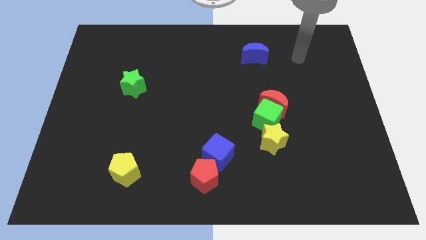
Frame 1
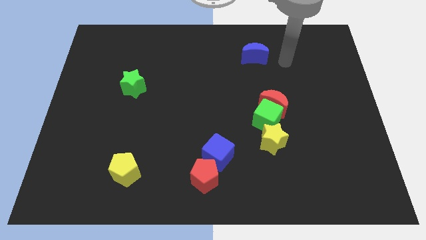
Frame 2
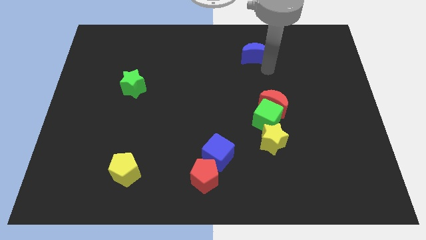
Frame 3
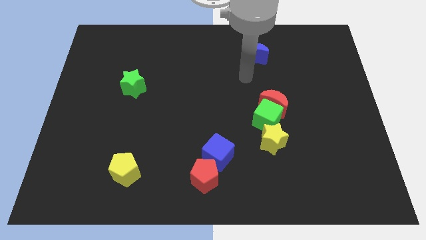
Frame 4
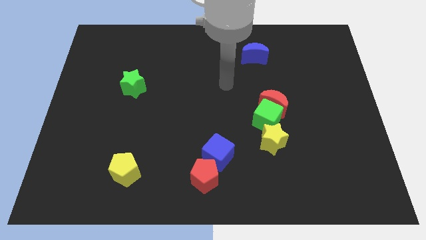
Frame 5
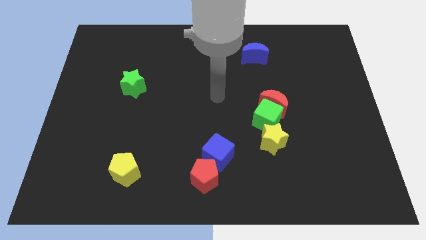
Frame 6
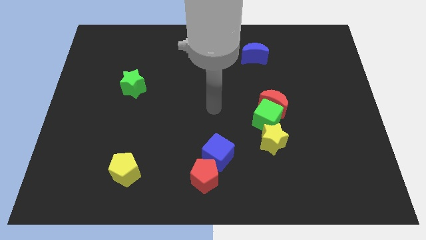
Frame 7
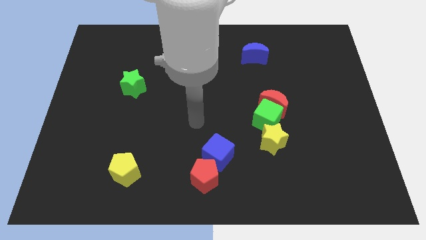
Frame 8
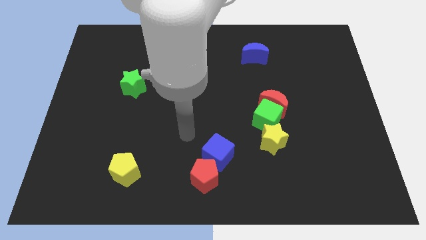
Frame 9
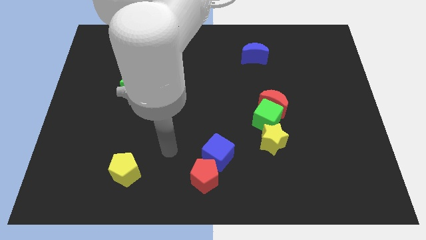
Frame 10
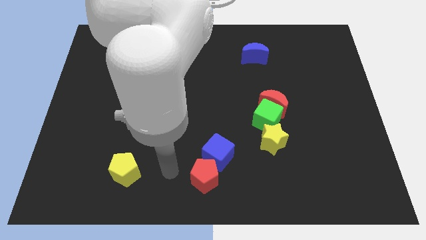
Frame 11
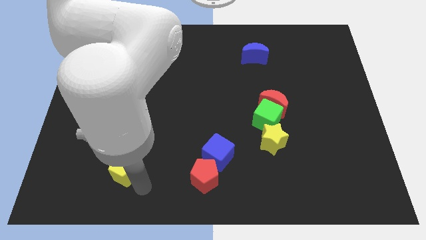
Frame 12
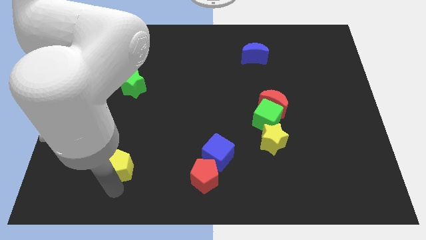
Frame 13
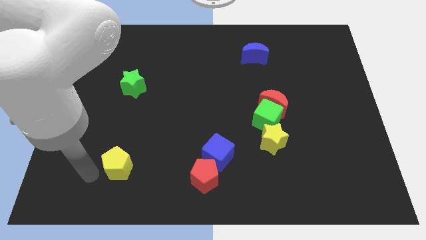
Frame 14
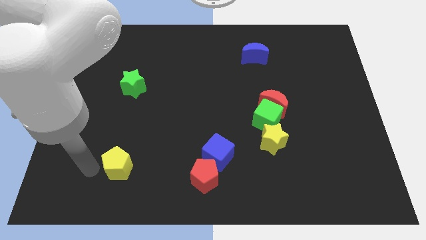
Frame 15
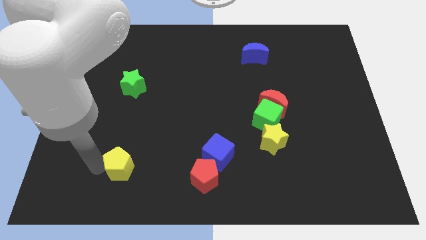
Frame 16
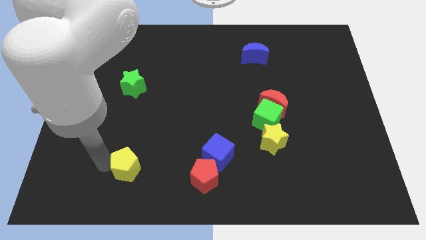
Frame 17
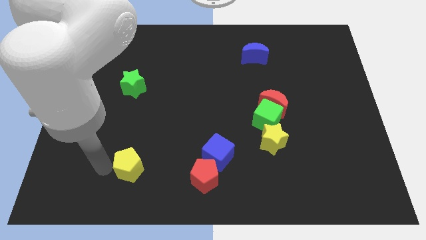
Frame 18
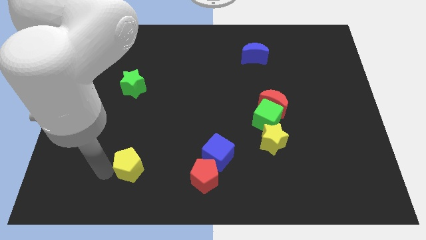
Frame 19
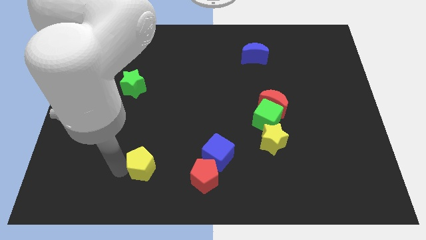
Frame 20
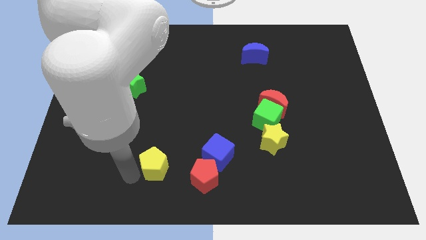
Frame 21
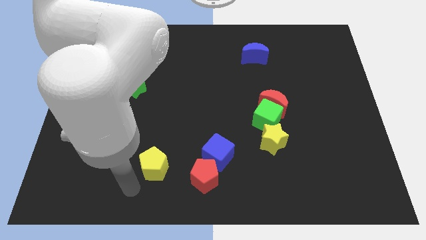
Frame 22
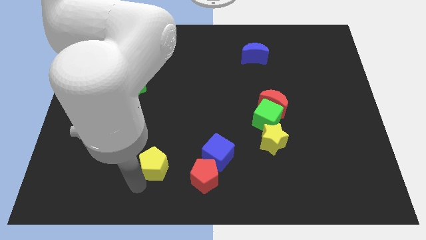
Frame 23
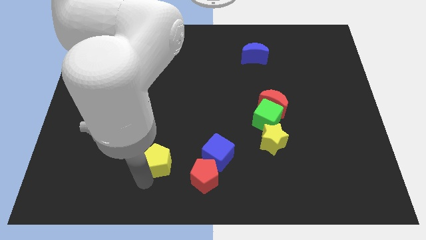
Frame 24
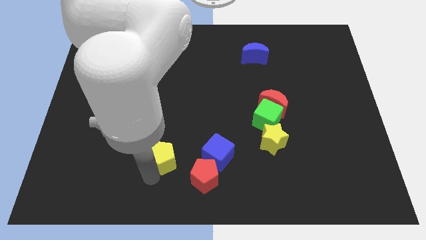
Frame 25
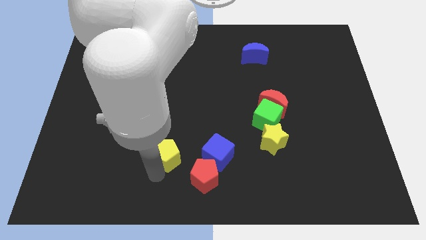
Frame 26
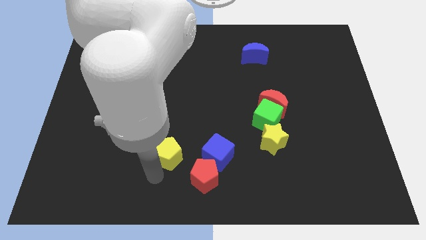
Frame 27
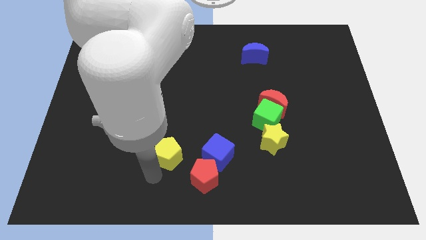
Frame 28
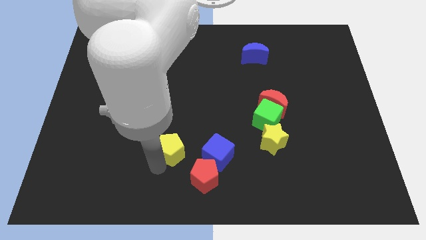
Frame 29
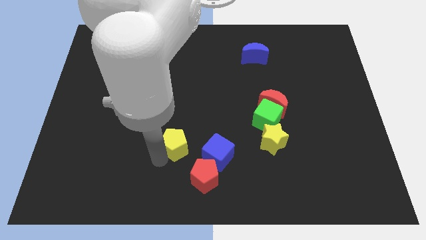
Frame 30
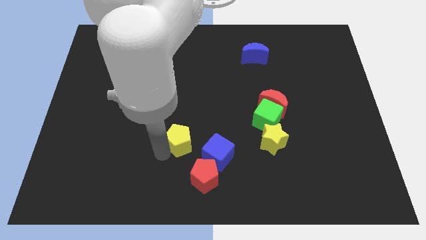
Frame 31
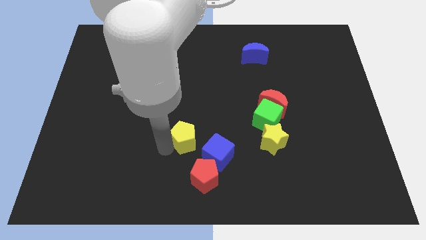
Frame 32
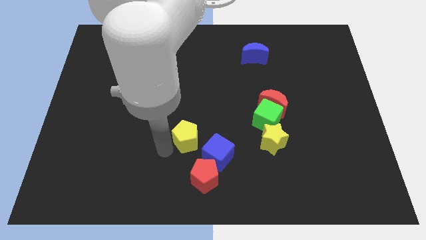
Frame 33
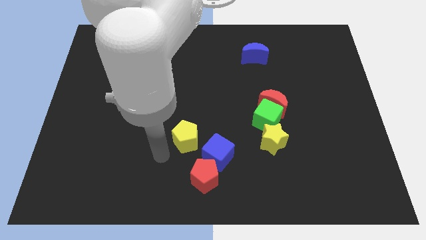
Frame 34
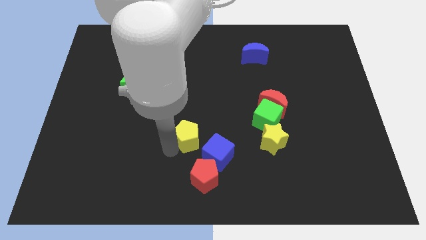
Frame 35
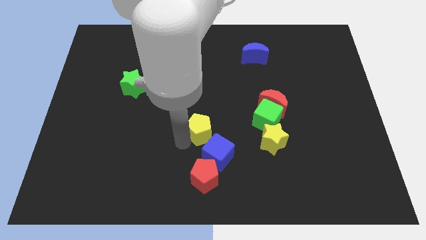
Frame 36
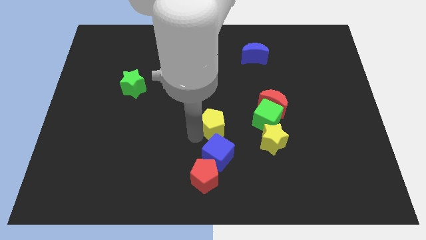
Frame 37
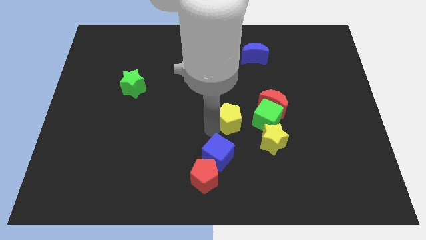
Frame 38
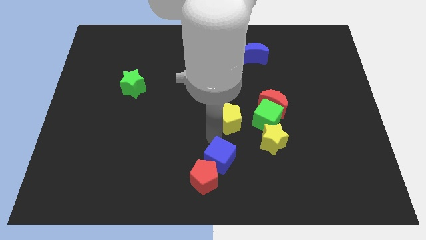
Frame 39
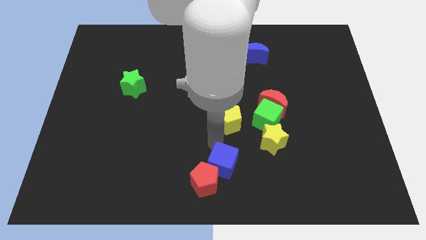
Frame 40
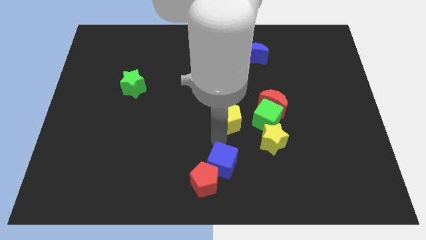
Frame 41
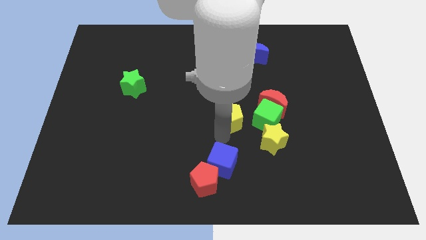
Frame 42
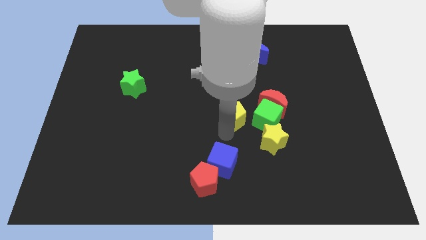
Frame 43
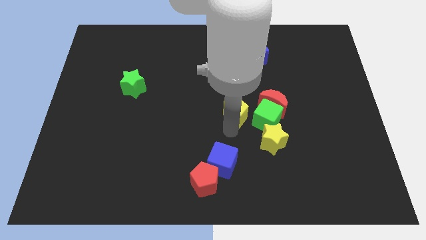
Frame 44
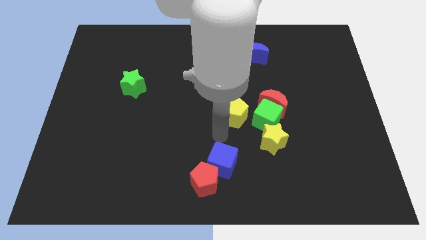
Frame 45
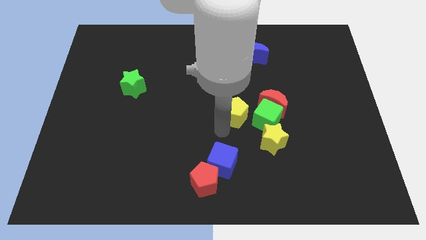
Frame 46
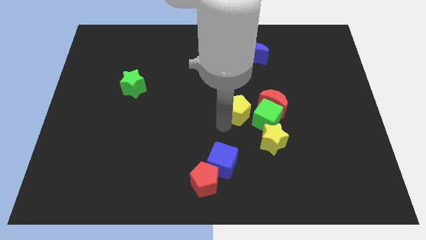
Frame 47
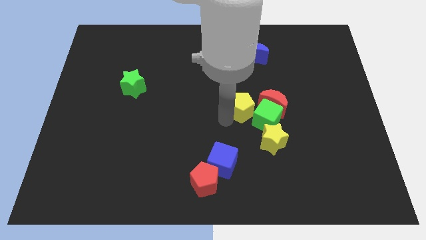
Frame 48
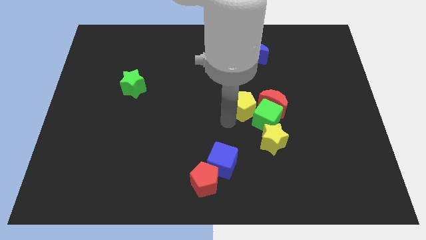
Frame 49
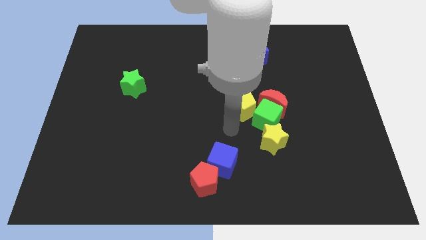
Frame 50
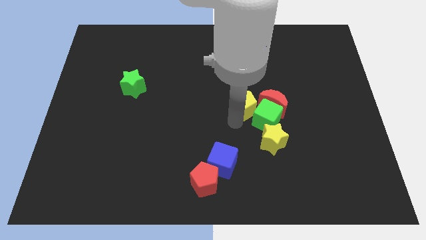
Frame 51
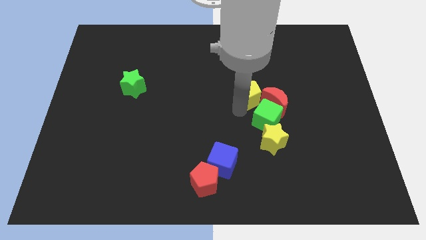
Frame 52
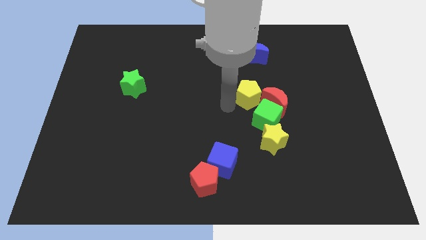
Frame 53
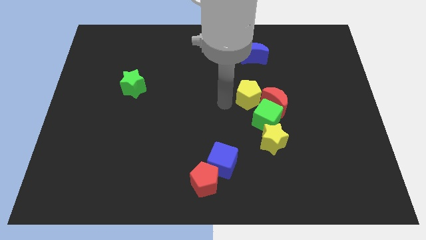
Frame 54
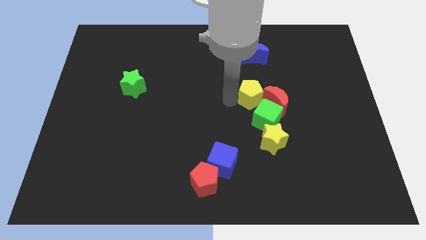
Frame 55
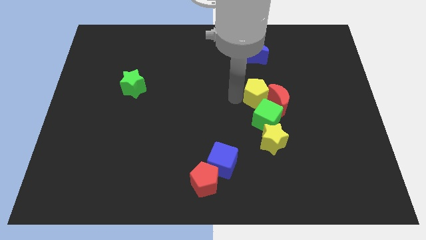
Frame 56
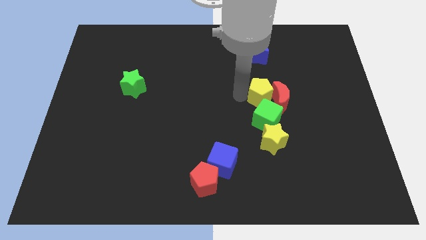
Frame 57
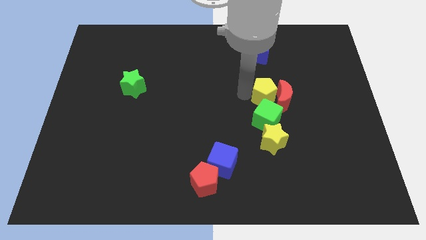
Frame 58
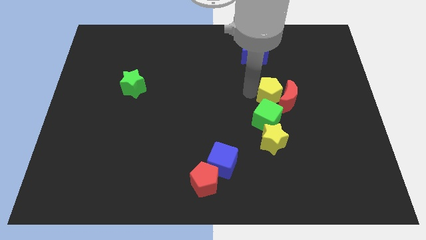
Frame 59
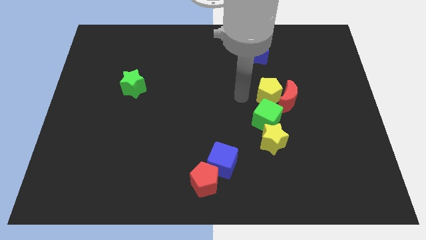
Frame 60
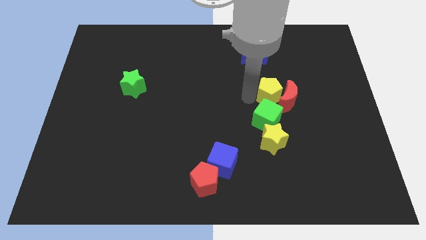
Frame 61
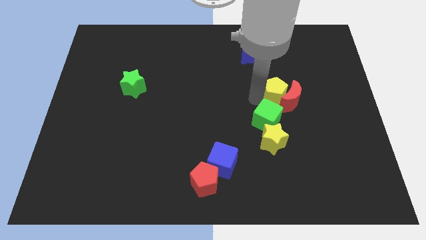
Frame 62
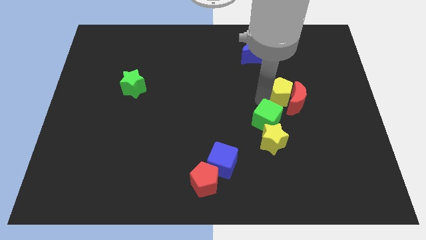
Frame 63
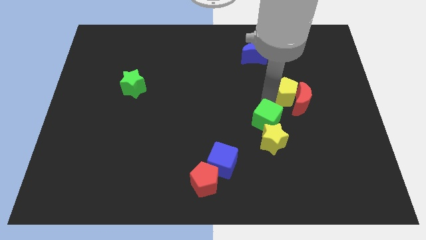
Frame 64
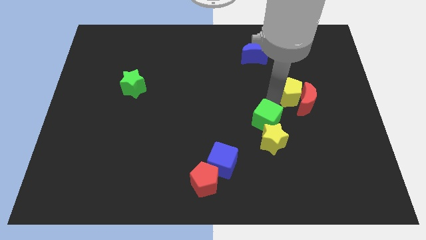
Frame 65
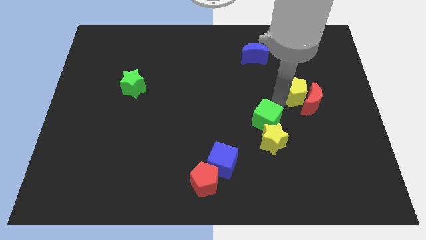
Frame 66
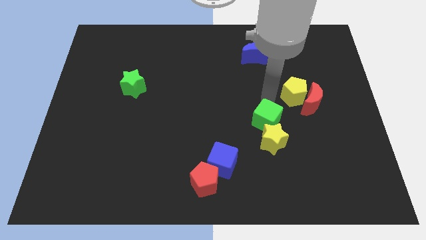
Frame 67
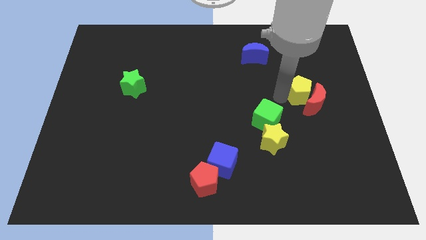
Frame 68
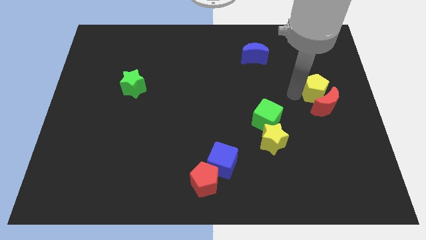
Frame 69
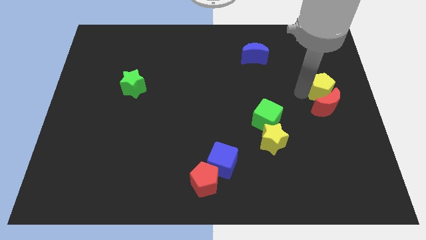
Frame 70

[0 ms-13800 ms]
put the yellow pentagon to the right side

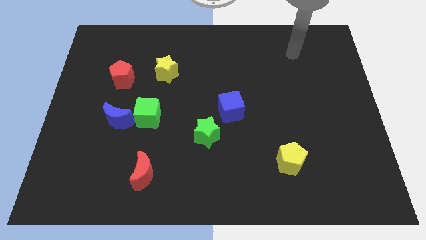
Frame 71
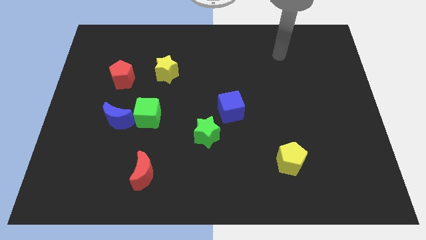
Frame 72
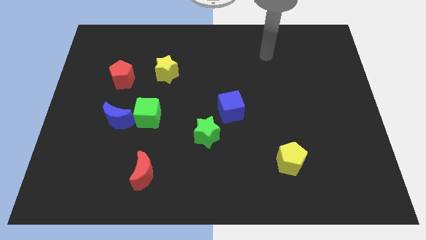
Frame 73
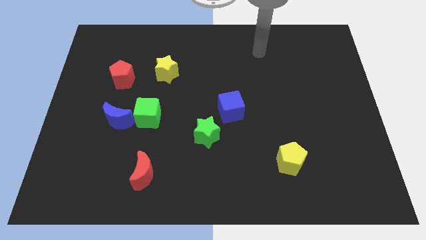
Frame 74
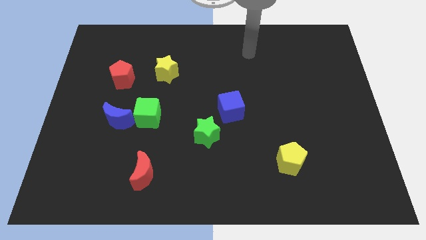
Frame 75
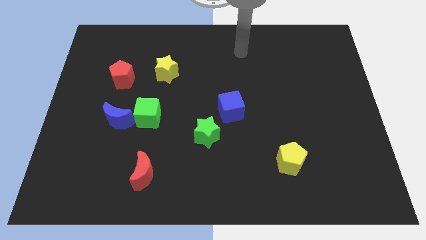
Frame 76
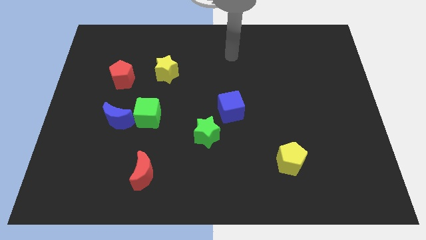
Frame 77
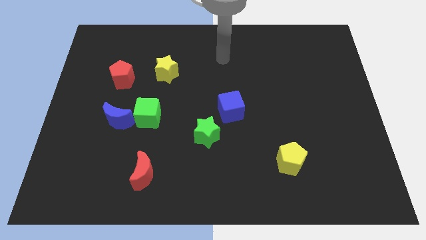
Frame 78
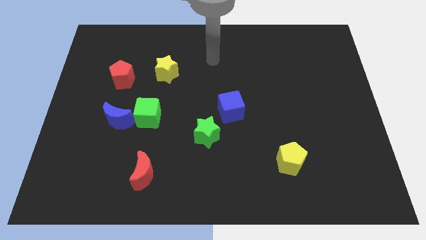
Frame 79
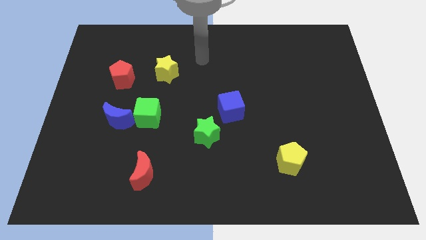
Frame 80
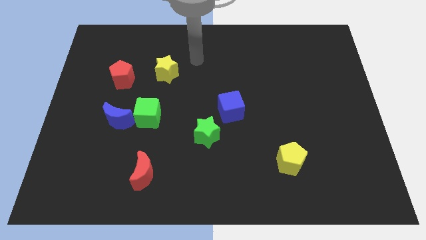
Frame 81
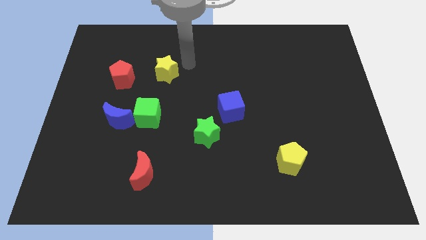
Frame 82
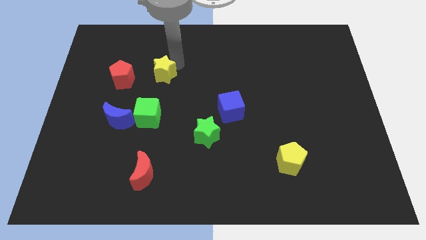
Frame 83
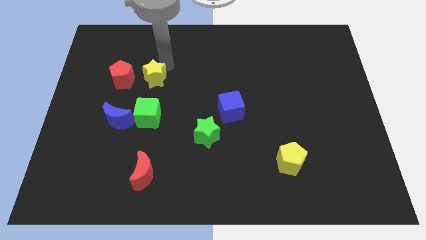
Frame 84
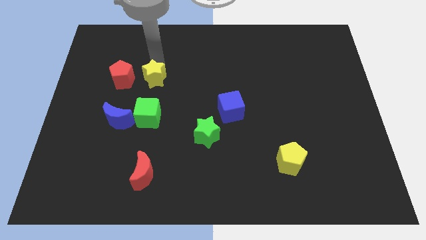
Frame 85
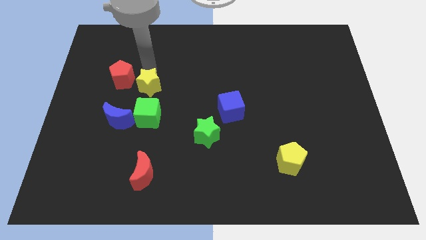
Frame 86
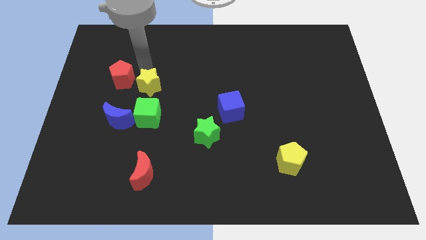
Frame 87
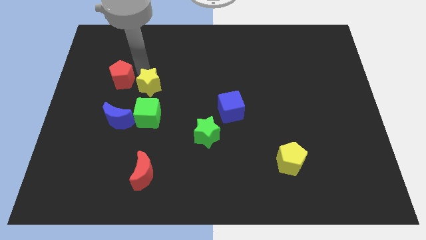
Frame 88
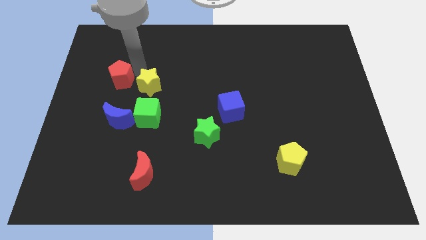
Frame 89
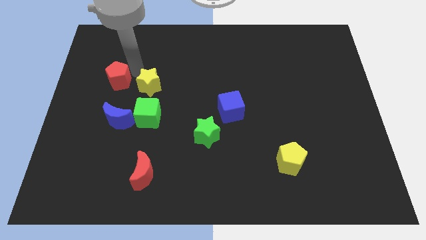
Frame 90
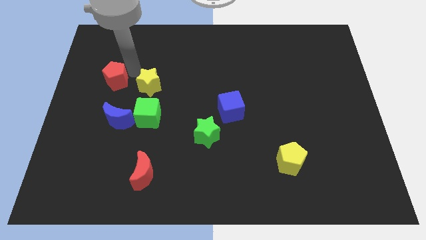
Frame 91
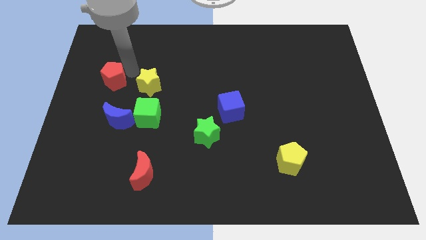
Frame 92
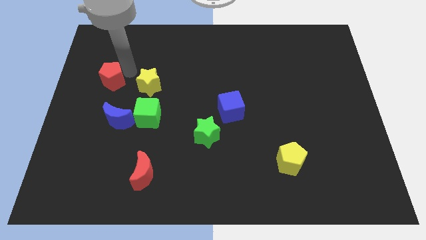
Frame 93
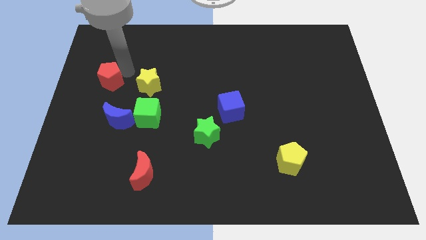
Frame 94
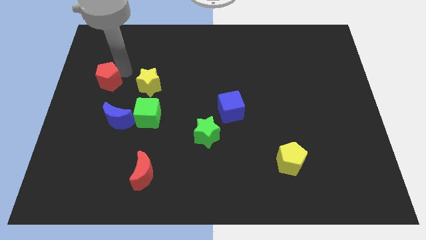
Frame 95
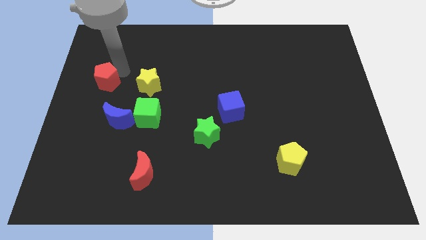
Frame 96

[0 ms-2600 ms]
push the red pentagon to the left side of the board
